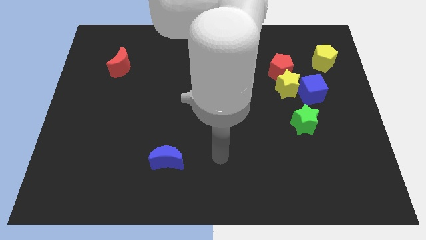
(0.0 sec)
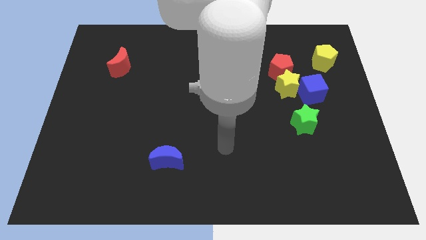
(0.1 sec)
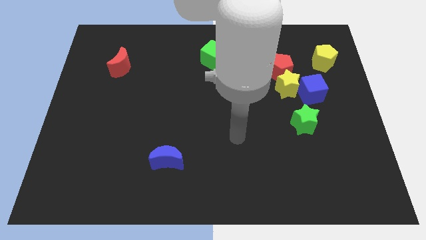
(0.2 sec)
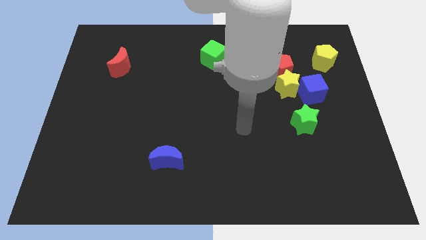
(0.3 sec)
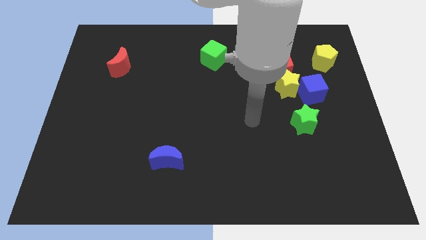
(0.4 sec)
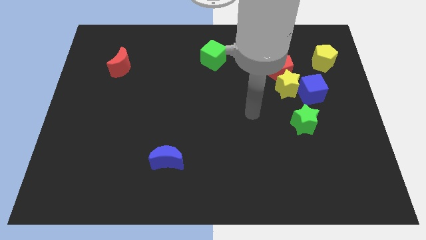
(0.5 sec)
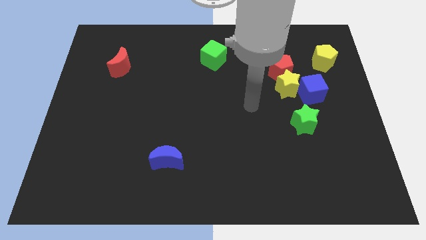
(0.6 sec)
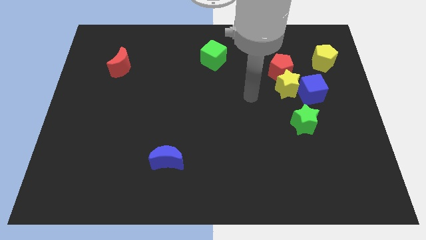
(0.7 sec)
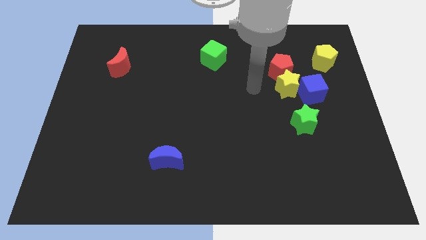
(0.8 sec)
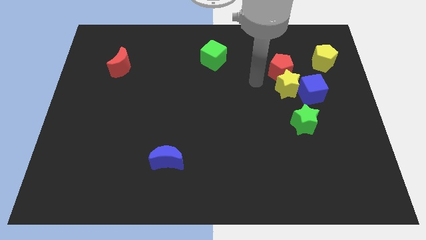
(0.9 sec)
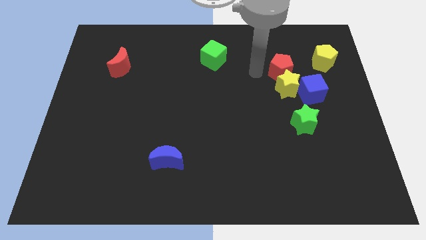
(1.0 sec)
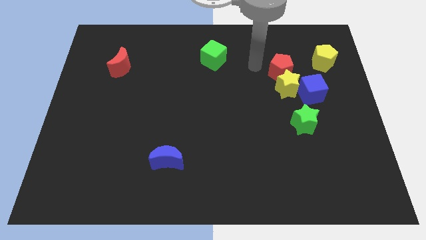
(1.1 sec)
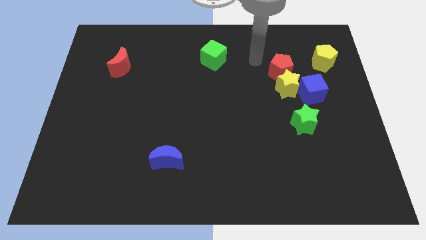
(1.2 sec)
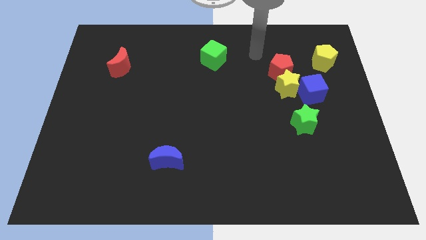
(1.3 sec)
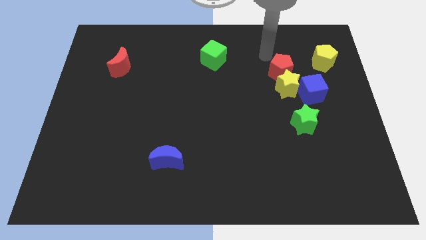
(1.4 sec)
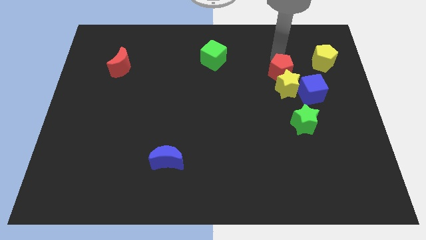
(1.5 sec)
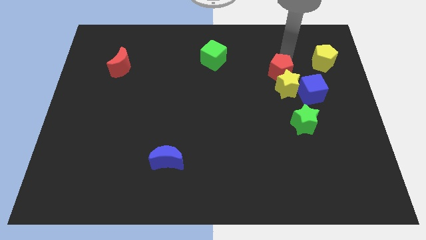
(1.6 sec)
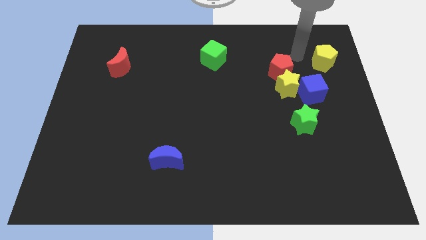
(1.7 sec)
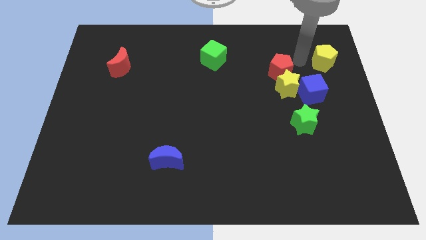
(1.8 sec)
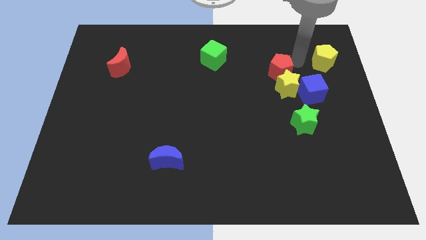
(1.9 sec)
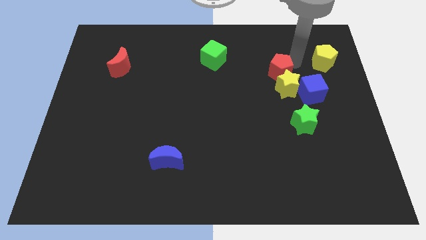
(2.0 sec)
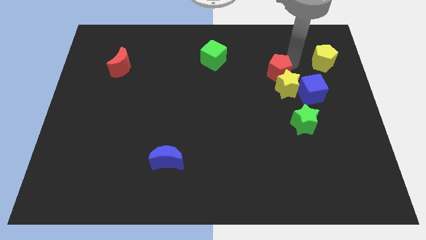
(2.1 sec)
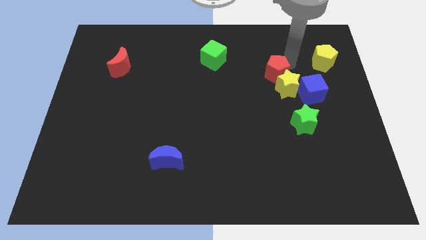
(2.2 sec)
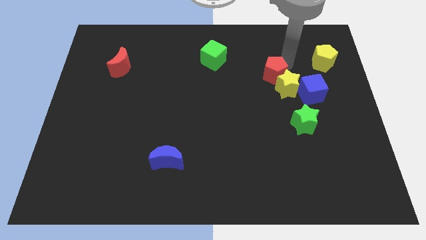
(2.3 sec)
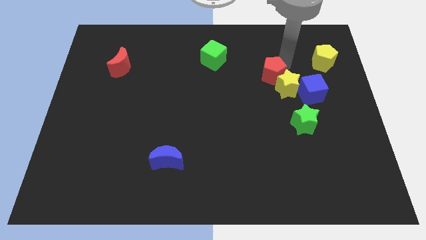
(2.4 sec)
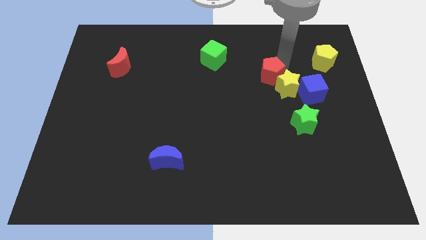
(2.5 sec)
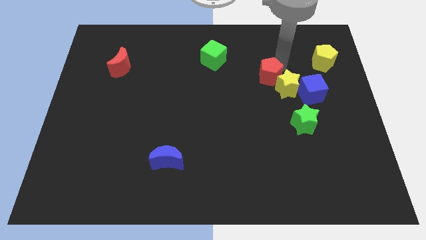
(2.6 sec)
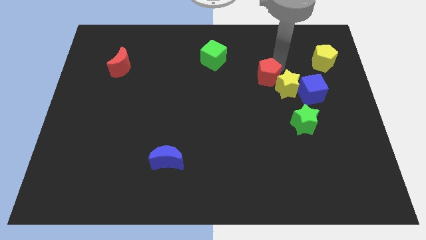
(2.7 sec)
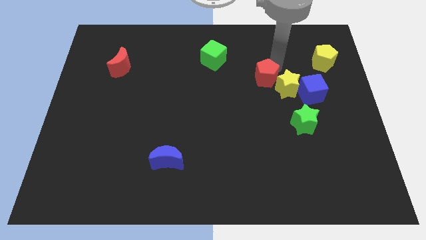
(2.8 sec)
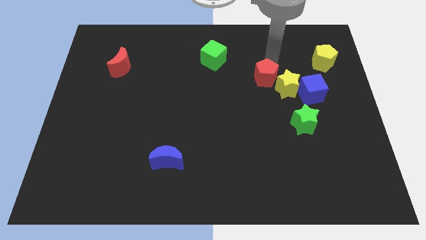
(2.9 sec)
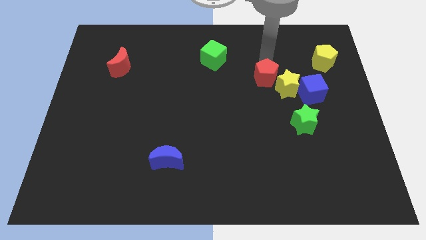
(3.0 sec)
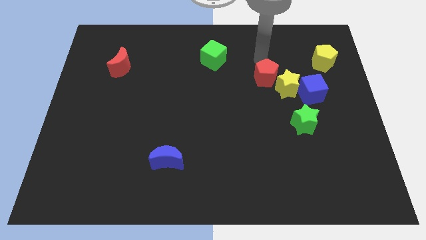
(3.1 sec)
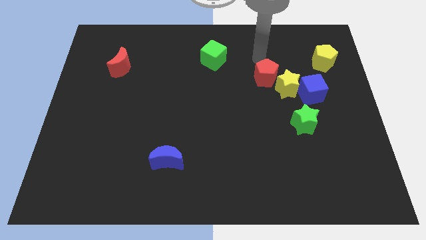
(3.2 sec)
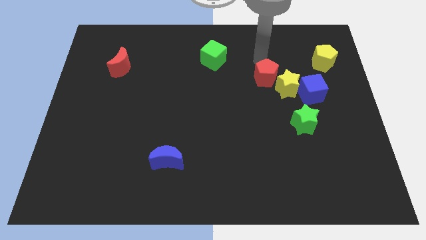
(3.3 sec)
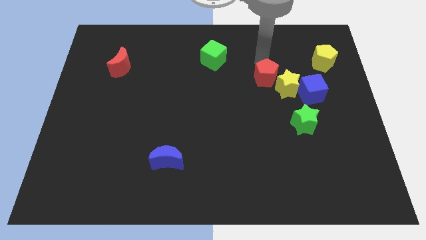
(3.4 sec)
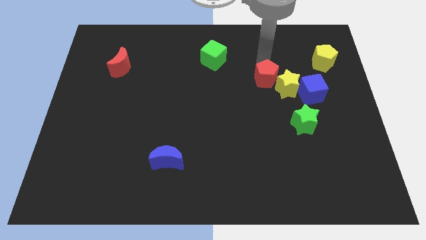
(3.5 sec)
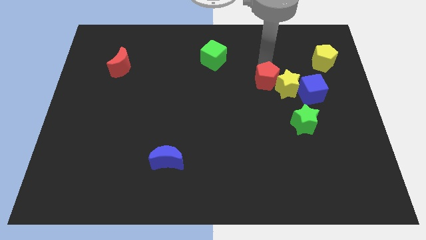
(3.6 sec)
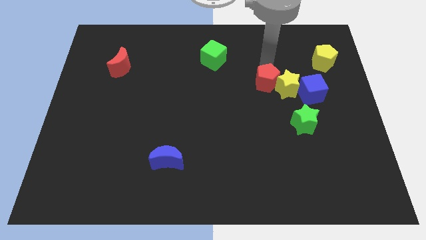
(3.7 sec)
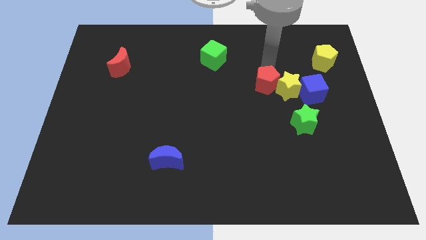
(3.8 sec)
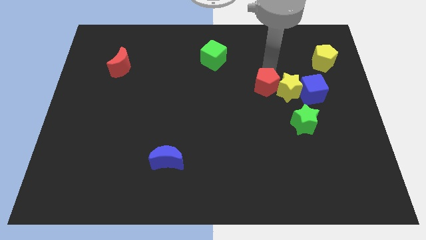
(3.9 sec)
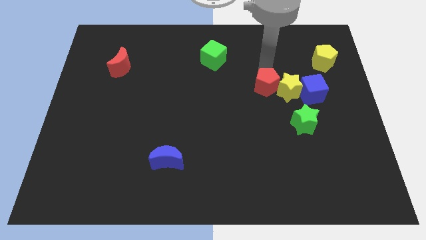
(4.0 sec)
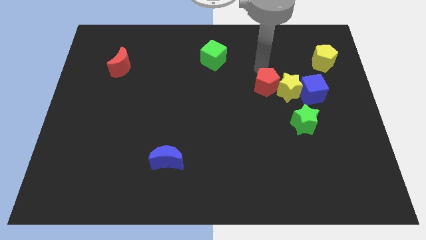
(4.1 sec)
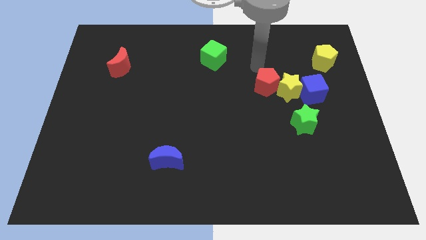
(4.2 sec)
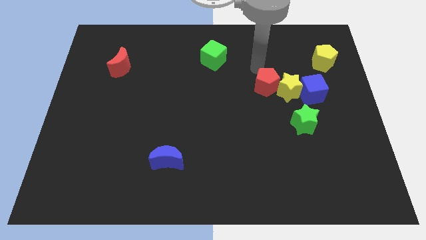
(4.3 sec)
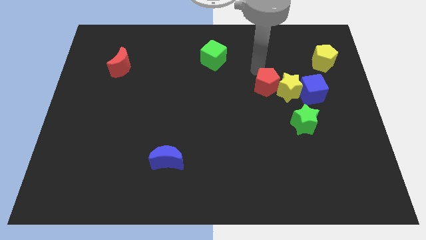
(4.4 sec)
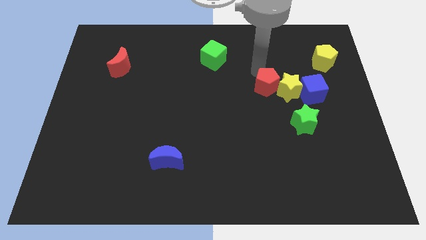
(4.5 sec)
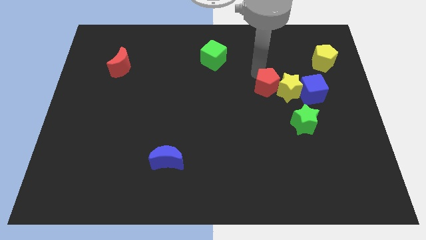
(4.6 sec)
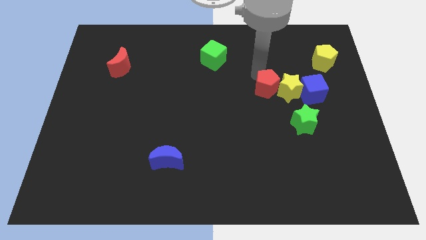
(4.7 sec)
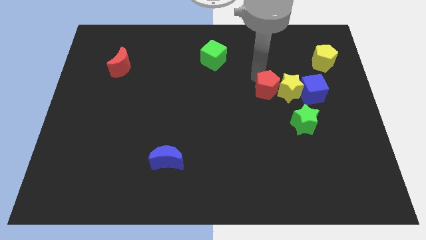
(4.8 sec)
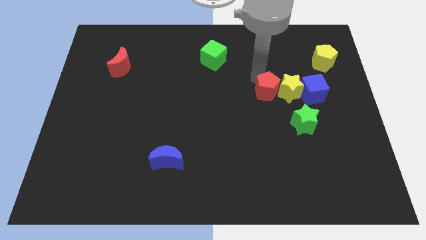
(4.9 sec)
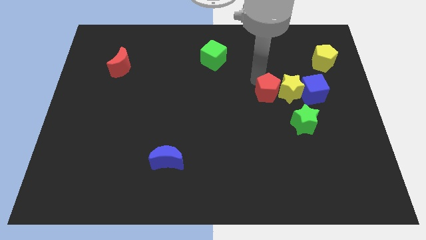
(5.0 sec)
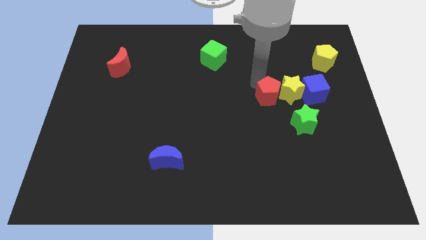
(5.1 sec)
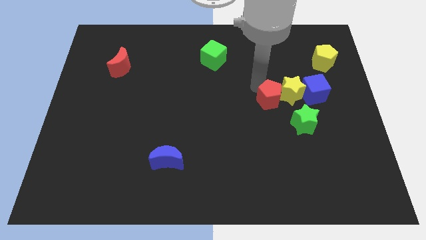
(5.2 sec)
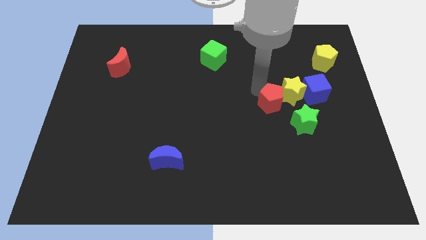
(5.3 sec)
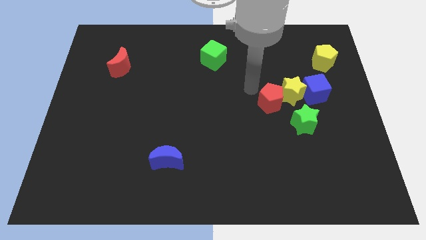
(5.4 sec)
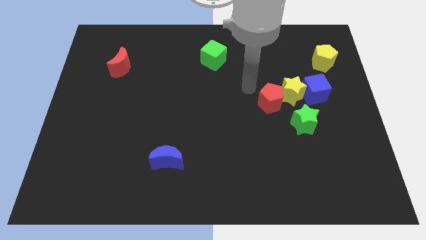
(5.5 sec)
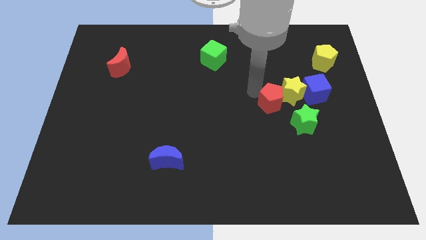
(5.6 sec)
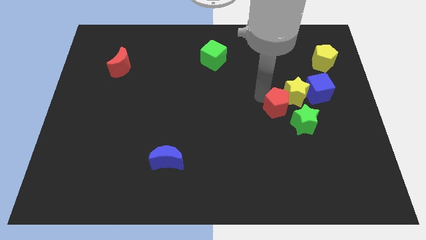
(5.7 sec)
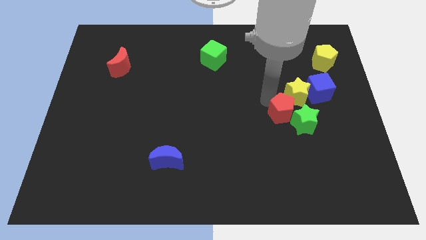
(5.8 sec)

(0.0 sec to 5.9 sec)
slide the red pentagon close to the green star

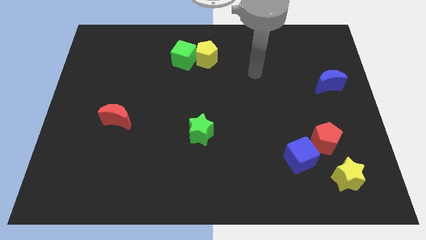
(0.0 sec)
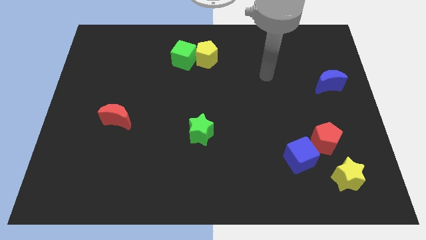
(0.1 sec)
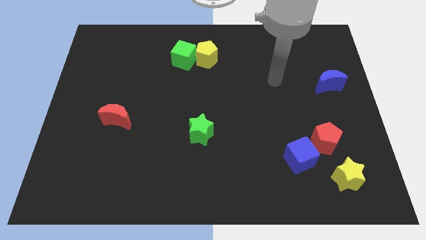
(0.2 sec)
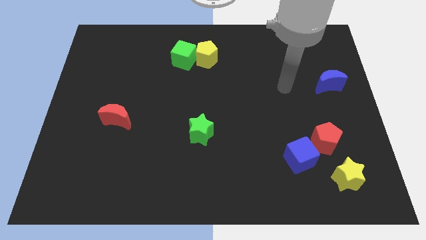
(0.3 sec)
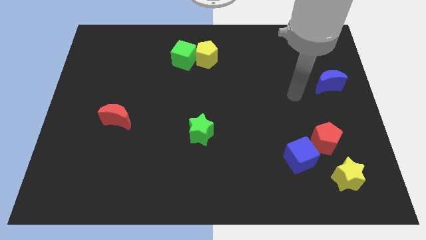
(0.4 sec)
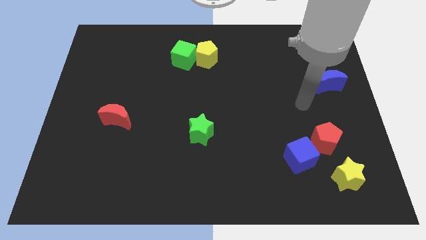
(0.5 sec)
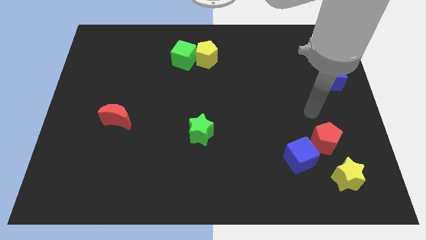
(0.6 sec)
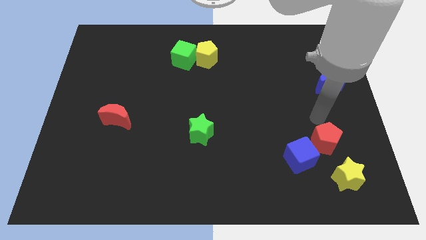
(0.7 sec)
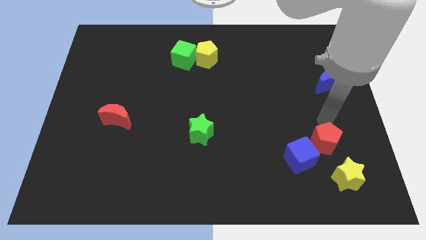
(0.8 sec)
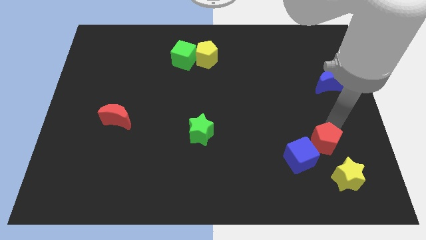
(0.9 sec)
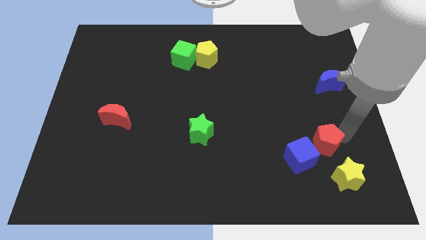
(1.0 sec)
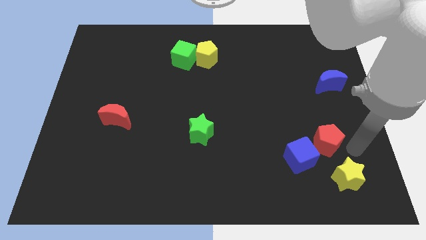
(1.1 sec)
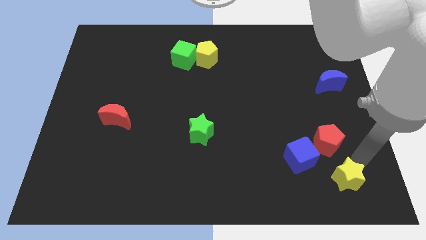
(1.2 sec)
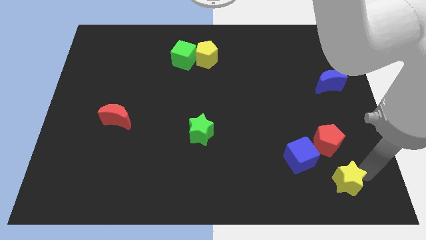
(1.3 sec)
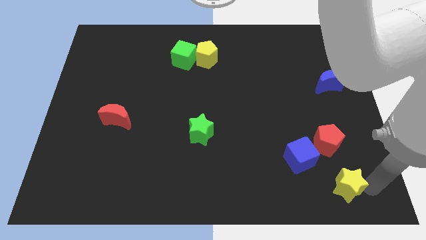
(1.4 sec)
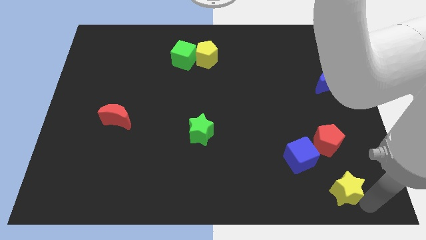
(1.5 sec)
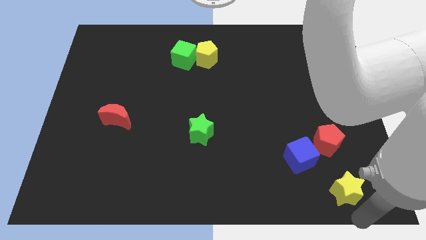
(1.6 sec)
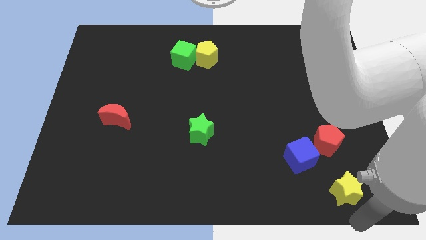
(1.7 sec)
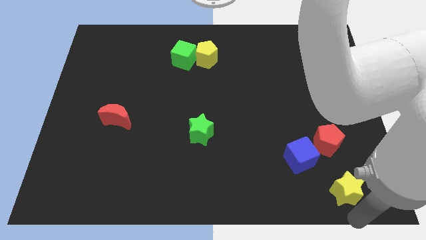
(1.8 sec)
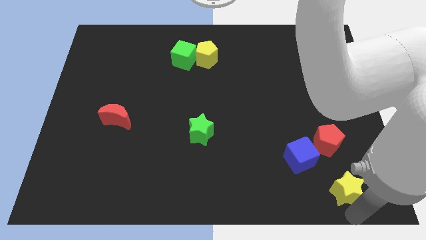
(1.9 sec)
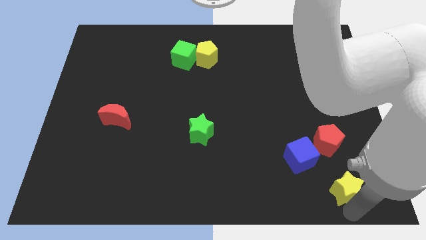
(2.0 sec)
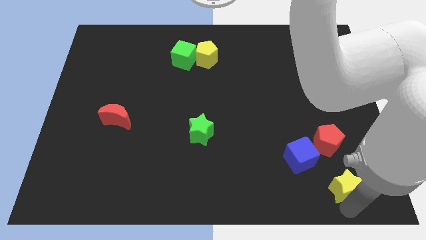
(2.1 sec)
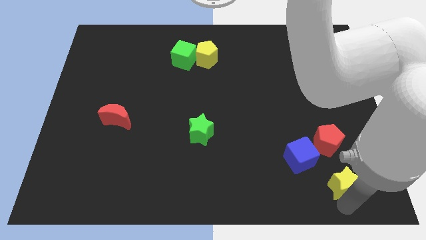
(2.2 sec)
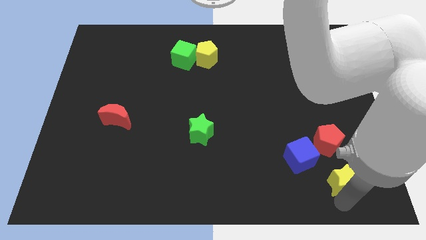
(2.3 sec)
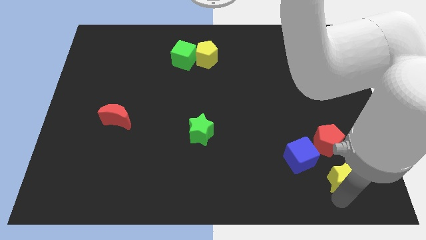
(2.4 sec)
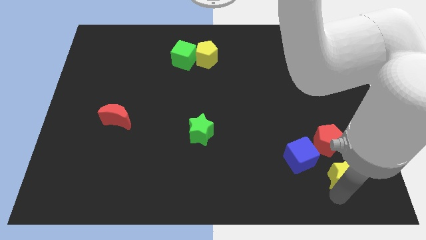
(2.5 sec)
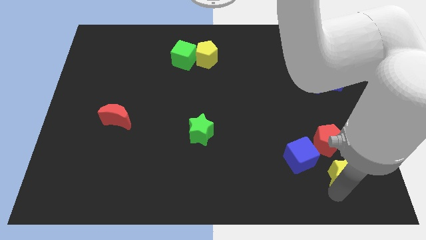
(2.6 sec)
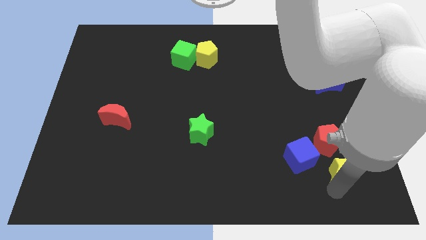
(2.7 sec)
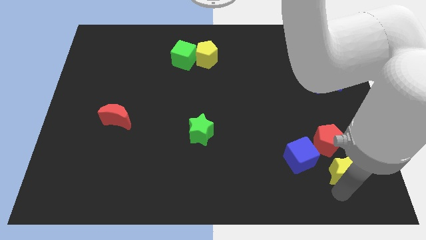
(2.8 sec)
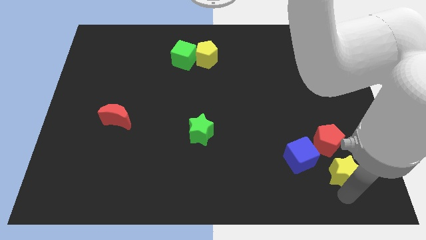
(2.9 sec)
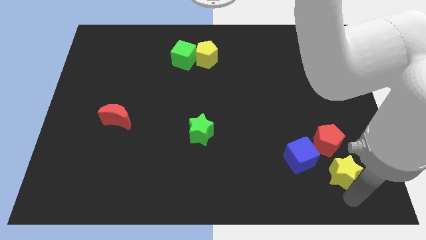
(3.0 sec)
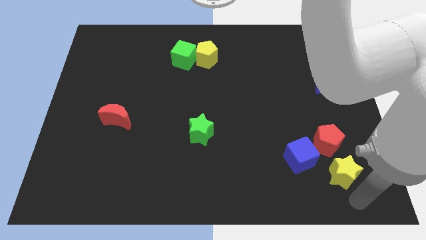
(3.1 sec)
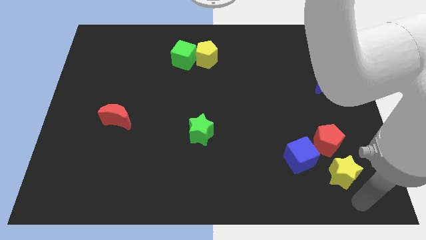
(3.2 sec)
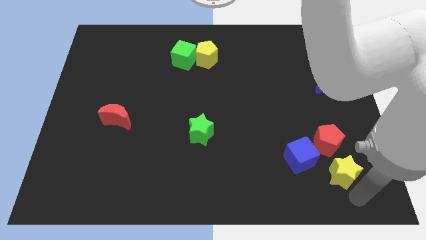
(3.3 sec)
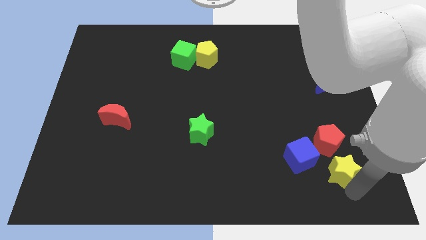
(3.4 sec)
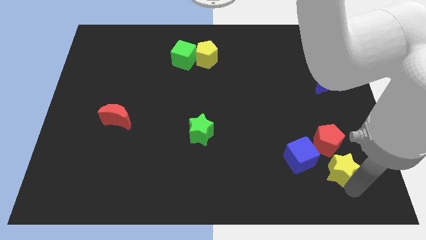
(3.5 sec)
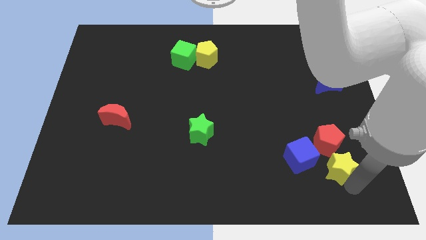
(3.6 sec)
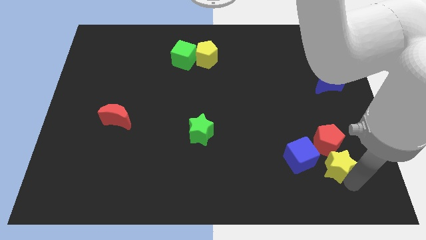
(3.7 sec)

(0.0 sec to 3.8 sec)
move the yellow star close to the red pentagon
